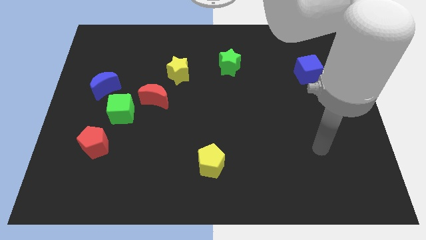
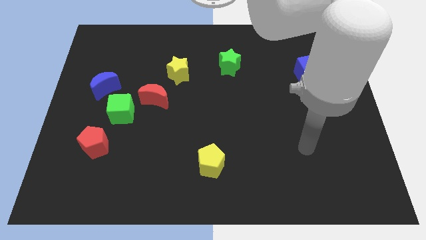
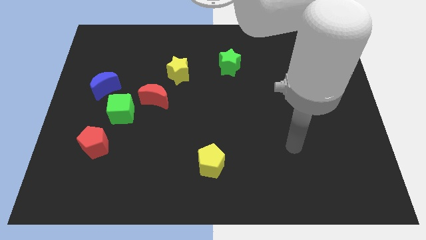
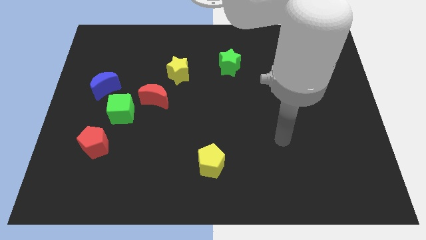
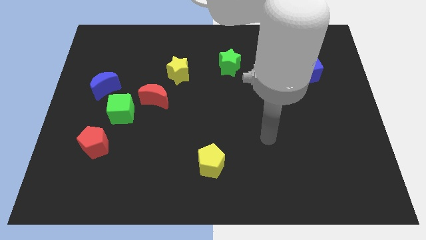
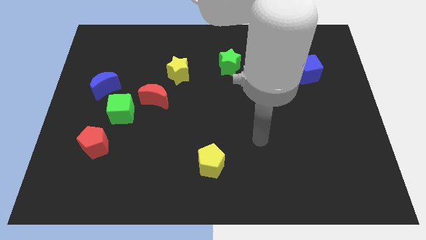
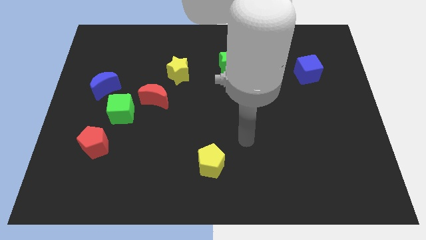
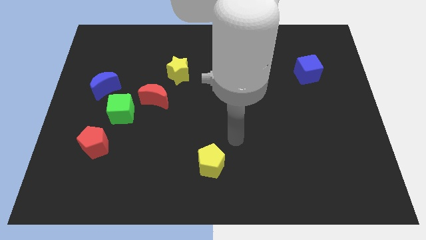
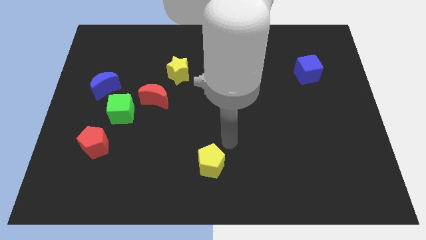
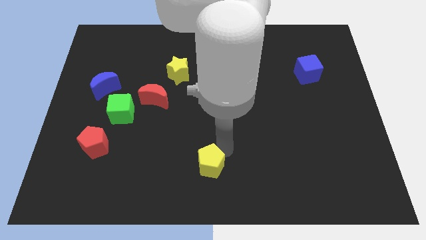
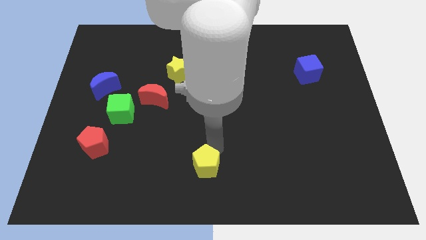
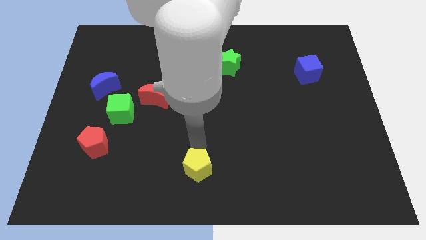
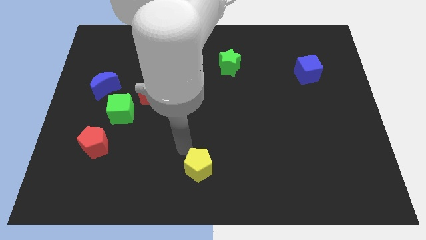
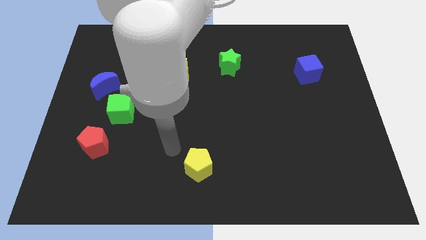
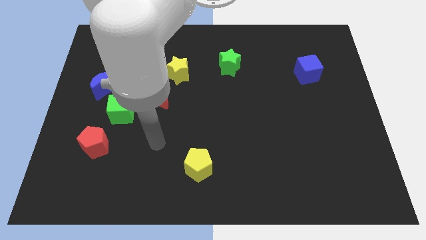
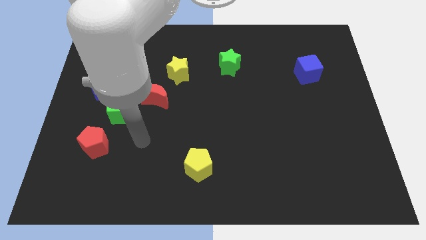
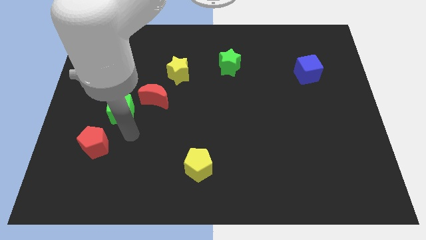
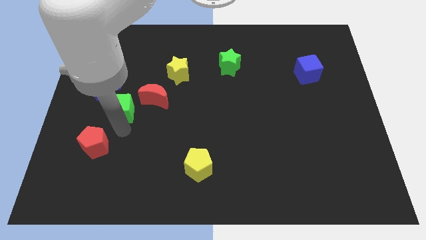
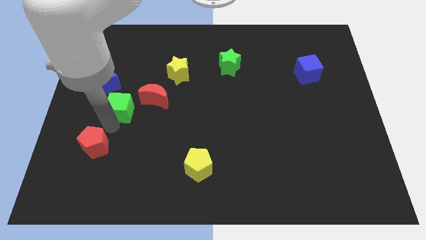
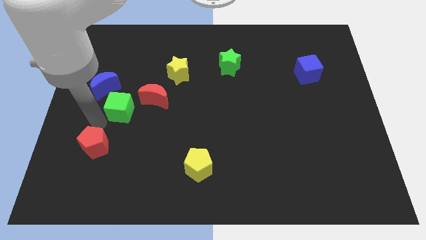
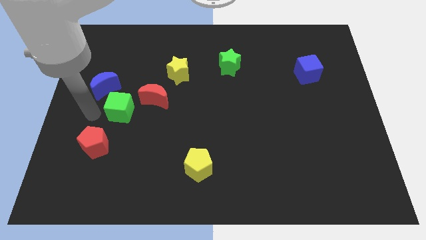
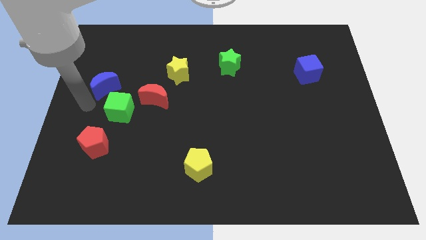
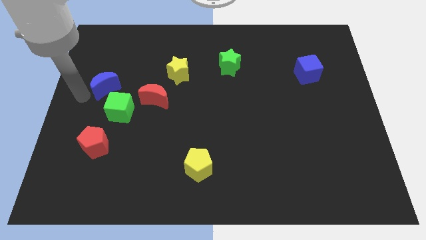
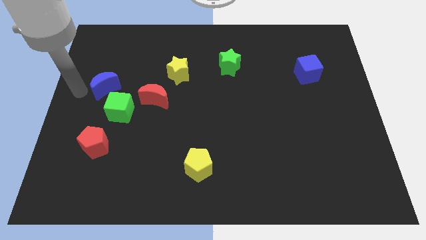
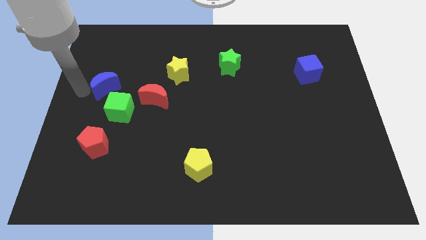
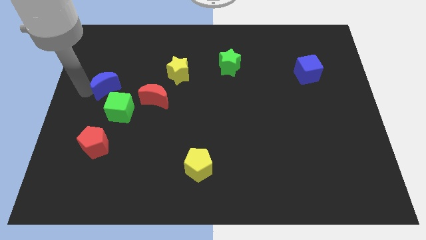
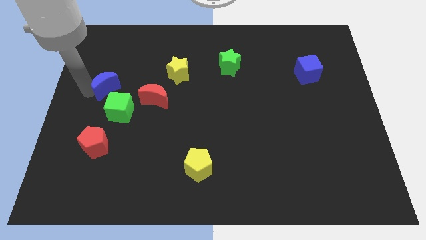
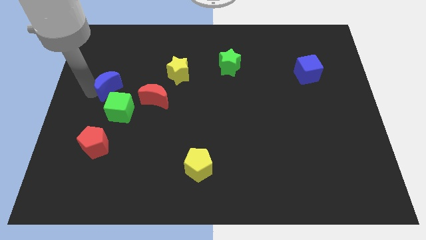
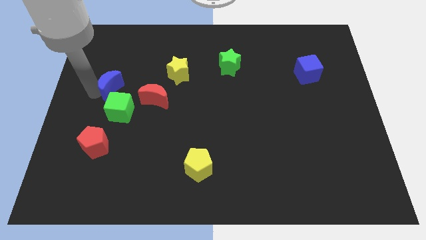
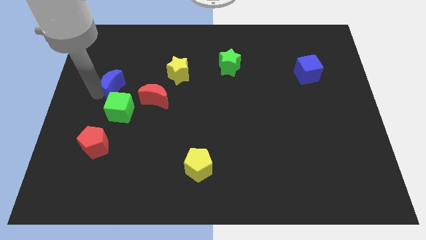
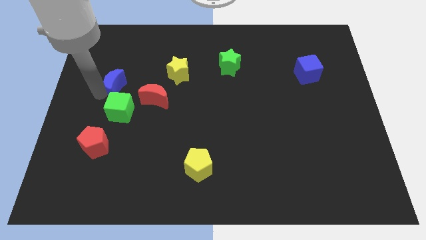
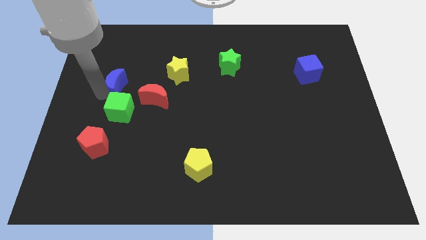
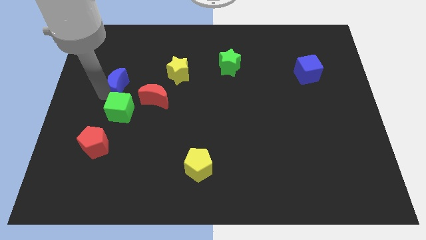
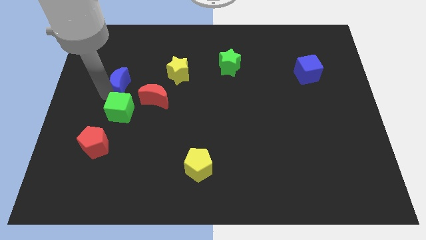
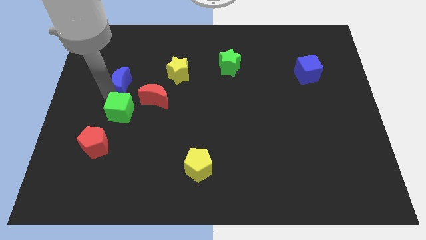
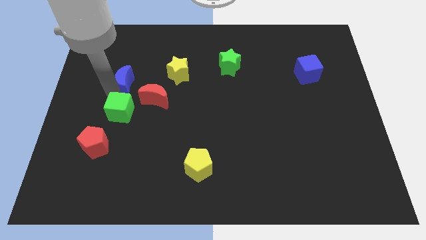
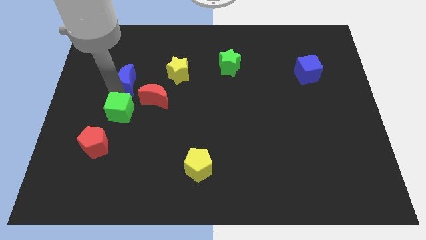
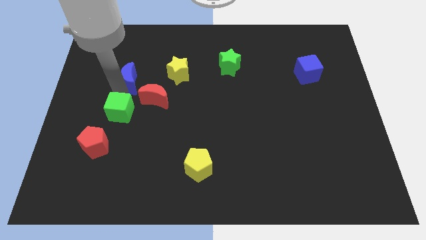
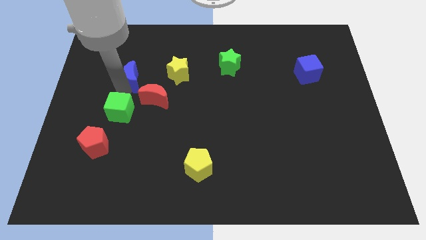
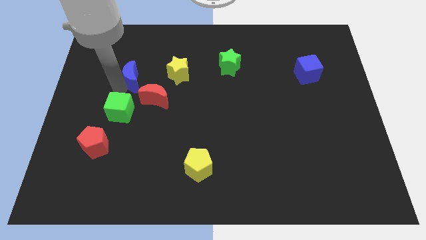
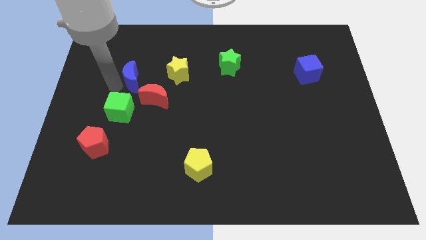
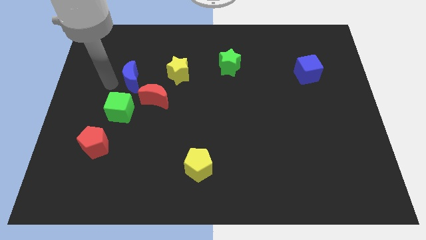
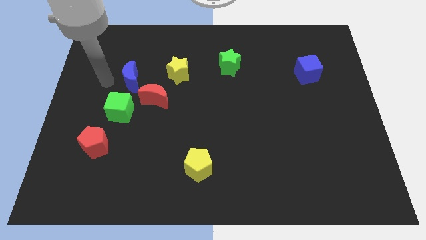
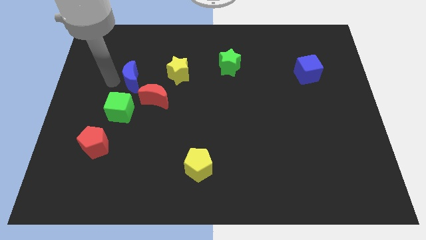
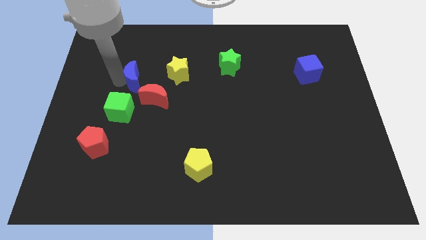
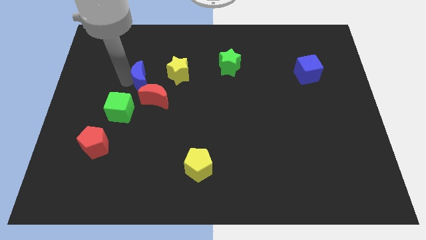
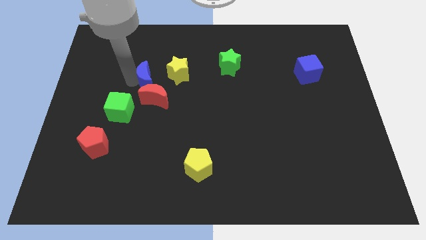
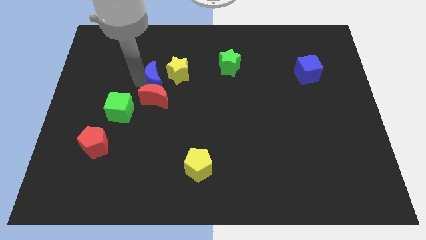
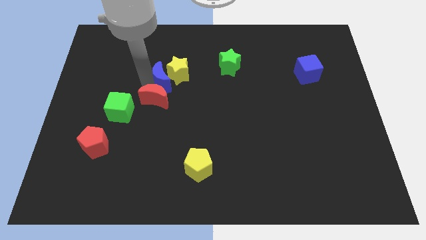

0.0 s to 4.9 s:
slide the blue moon next to the yellow star

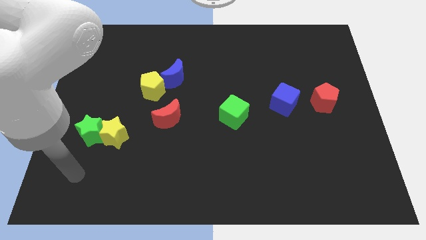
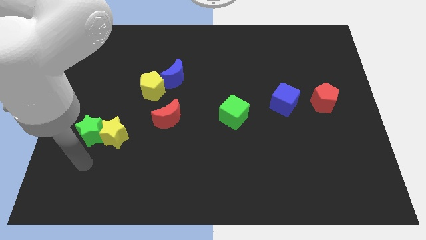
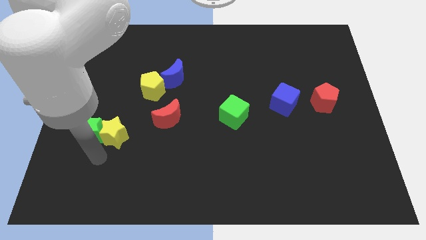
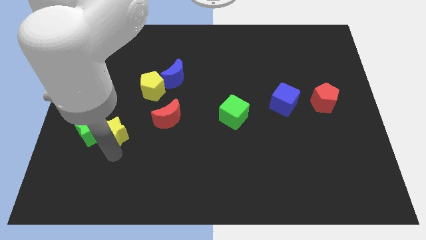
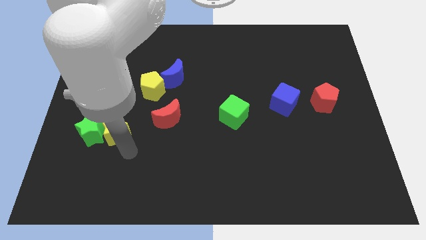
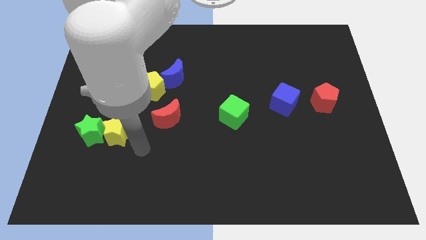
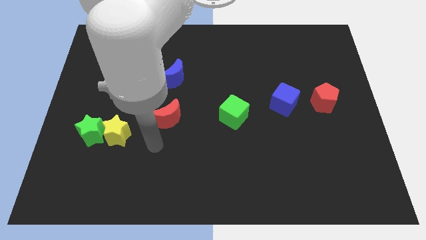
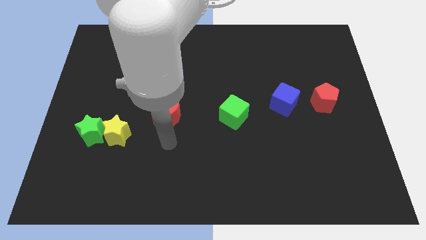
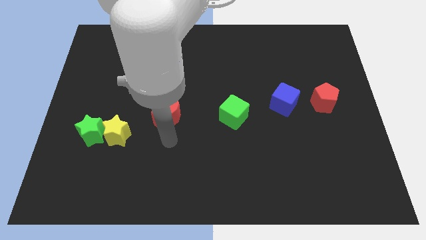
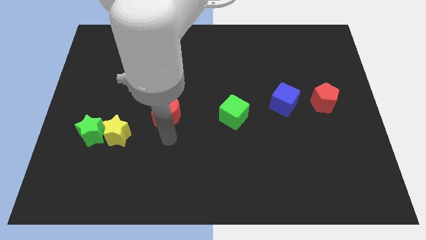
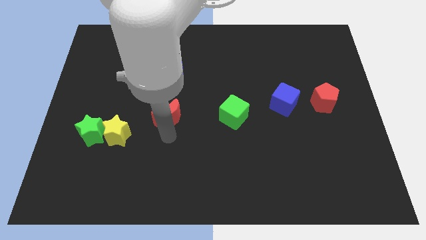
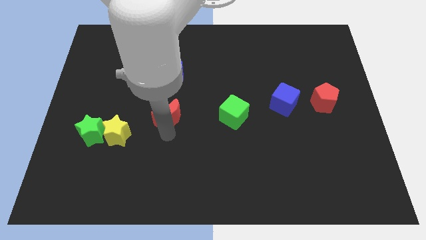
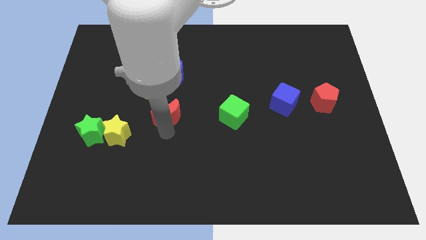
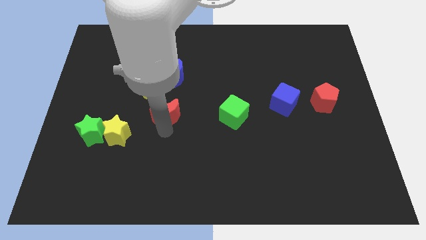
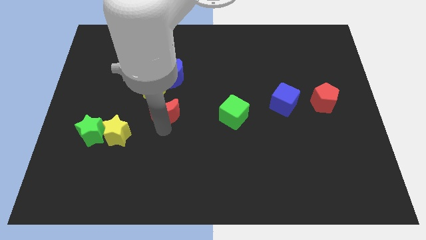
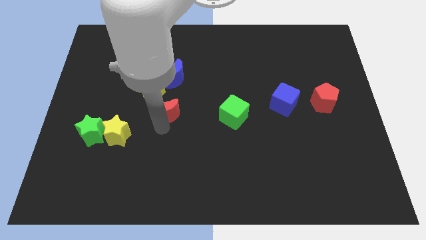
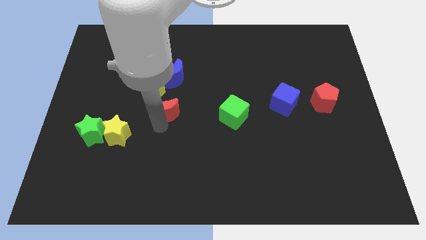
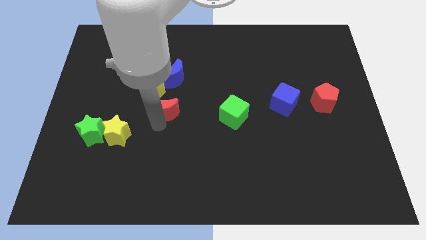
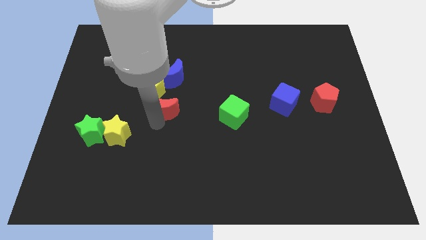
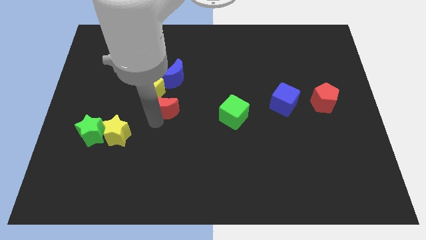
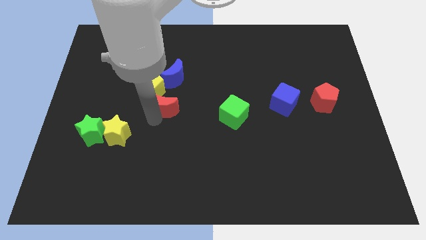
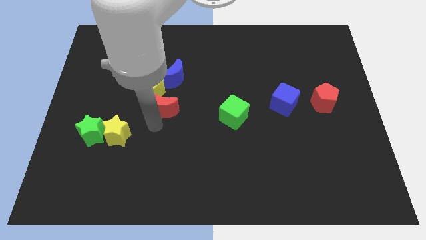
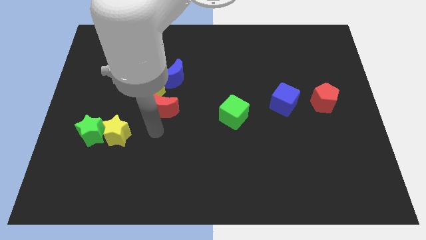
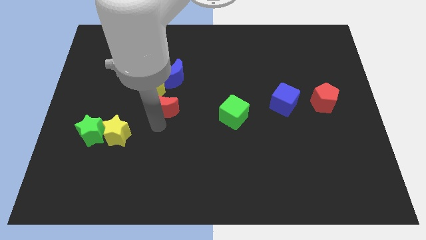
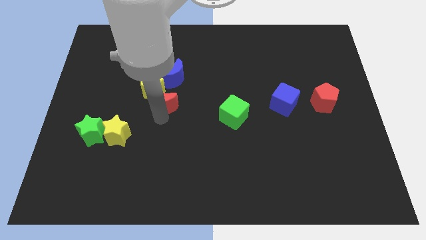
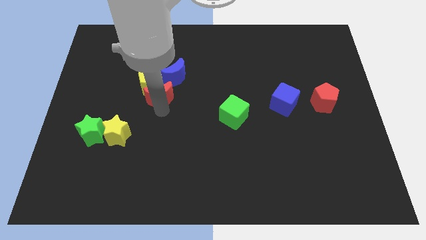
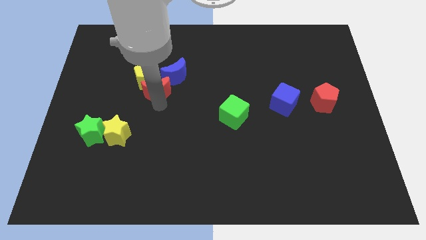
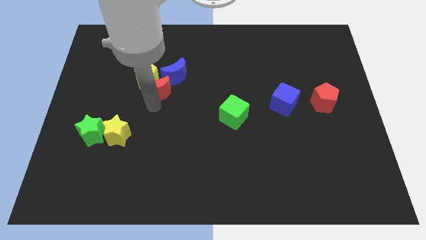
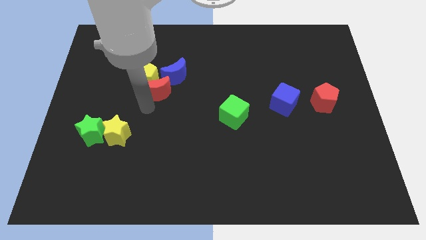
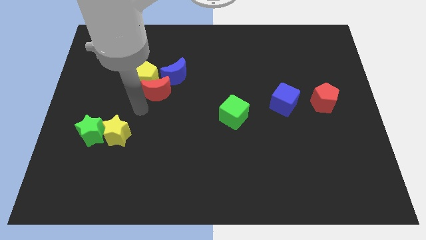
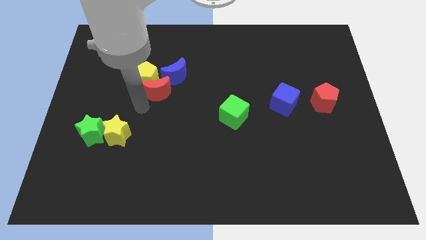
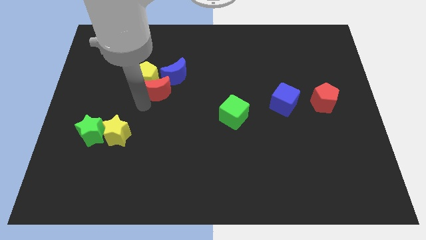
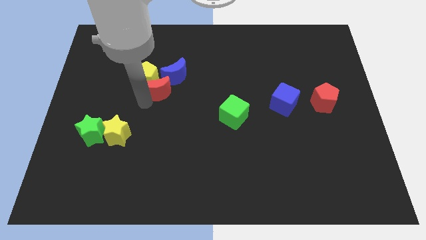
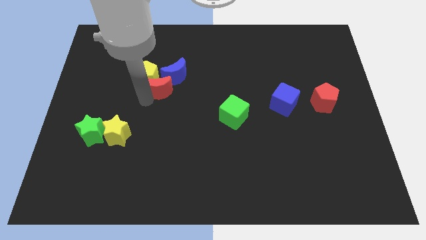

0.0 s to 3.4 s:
slide the red moon next to the blue moon
